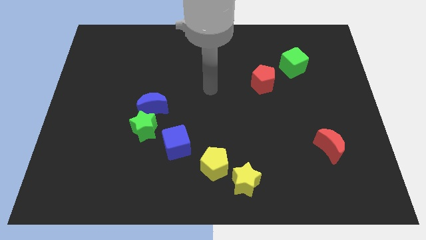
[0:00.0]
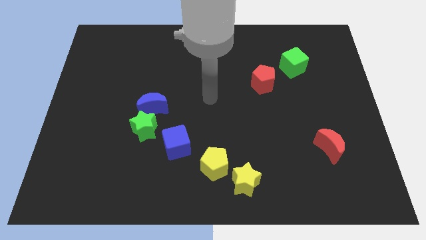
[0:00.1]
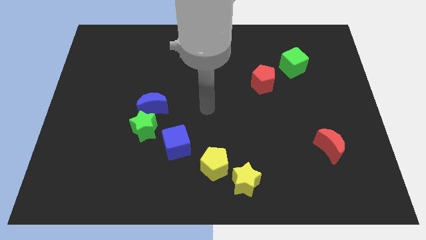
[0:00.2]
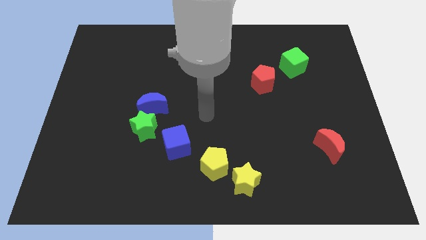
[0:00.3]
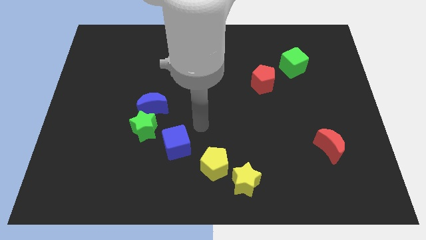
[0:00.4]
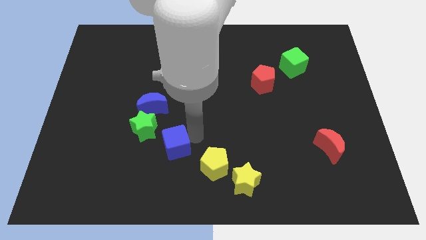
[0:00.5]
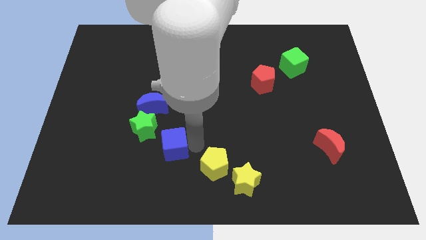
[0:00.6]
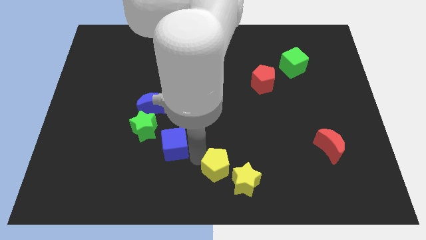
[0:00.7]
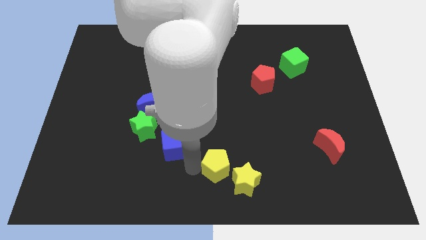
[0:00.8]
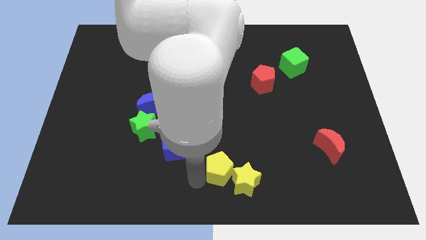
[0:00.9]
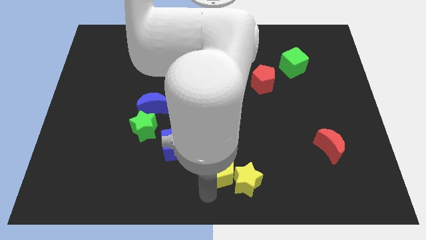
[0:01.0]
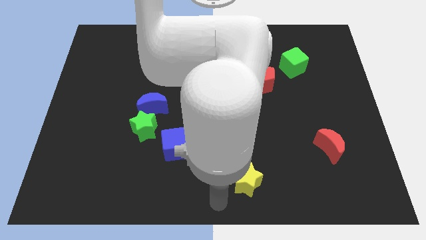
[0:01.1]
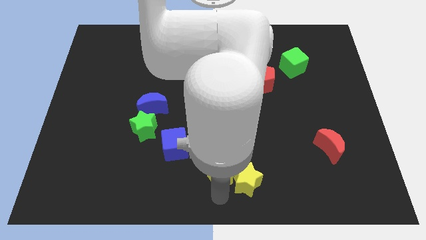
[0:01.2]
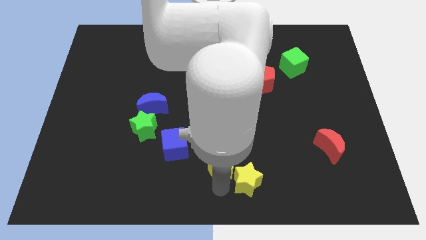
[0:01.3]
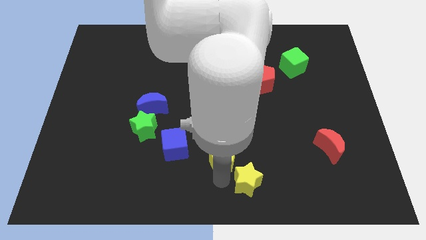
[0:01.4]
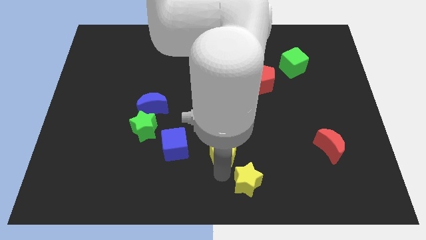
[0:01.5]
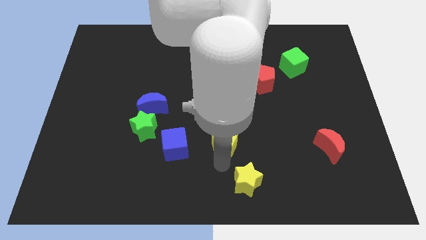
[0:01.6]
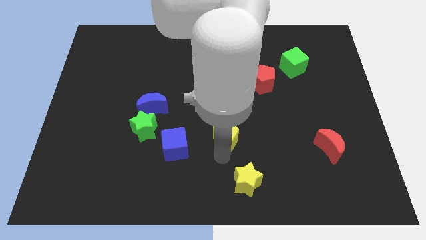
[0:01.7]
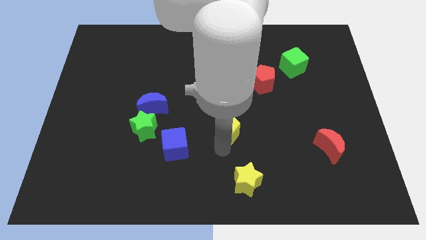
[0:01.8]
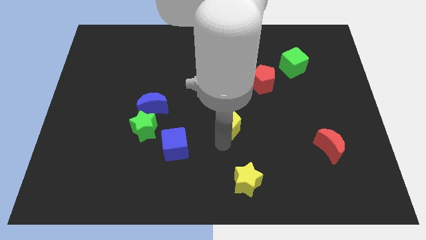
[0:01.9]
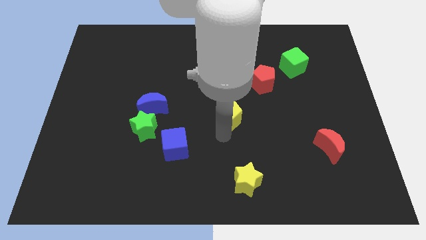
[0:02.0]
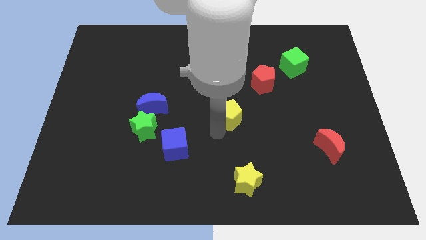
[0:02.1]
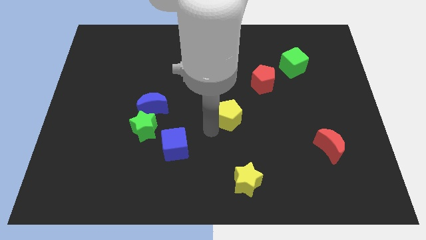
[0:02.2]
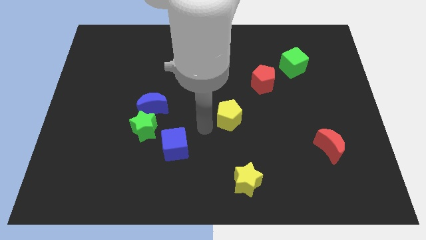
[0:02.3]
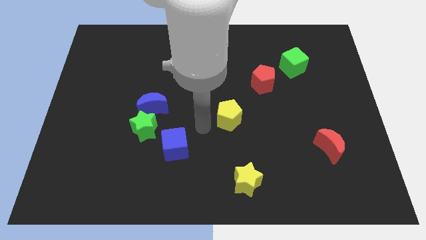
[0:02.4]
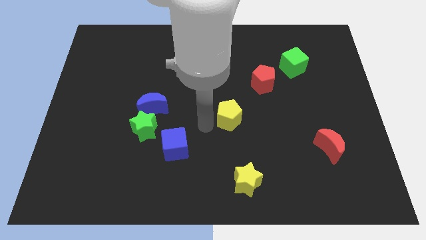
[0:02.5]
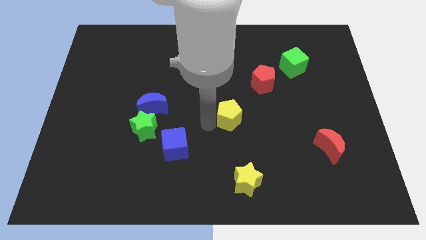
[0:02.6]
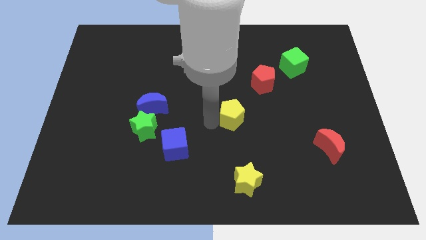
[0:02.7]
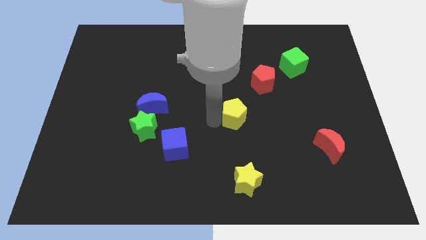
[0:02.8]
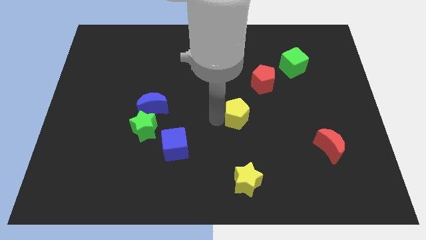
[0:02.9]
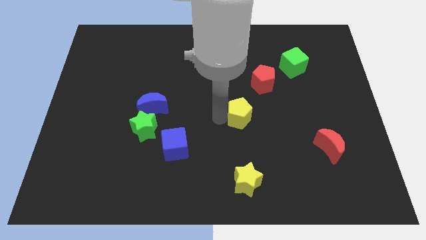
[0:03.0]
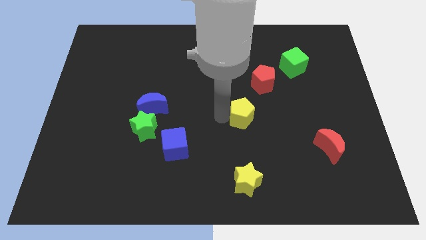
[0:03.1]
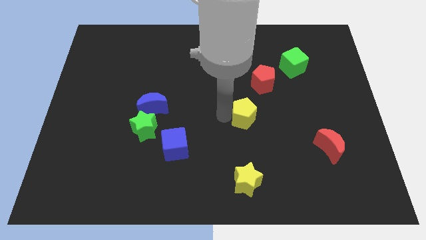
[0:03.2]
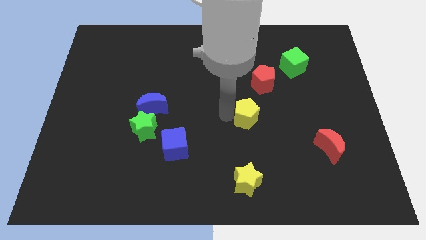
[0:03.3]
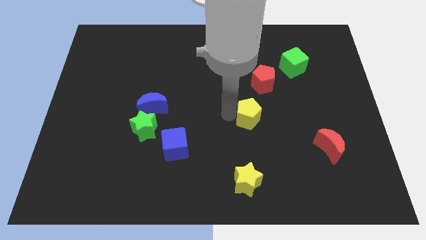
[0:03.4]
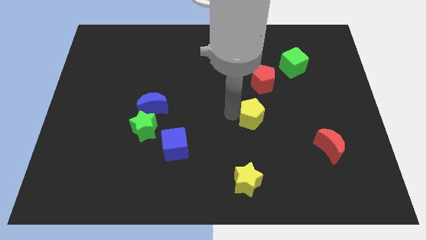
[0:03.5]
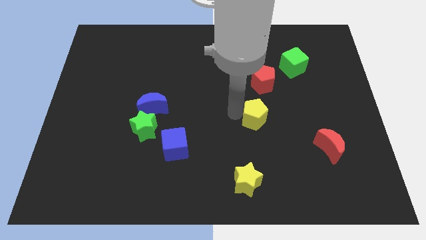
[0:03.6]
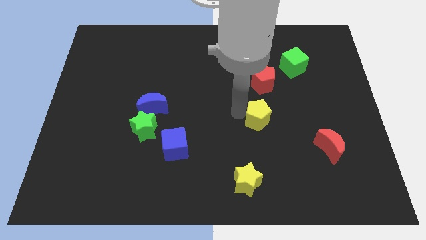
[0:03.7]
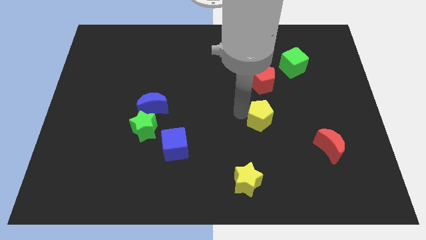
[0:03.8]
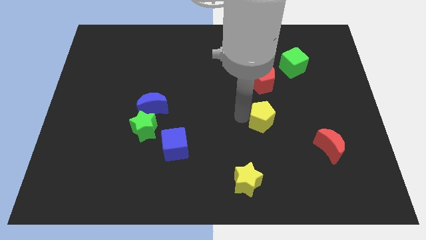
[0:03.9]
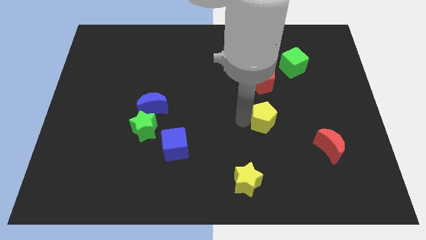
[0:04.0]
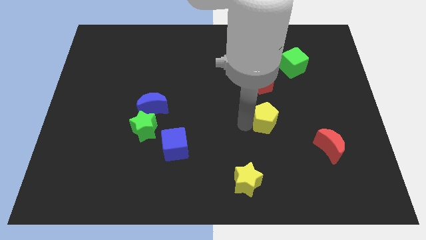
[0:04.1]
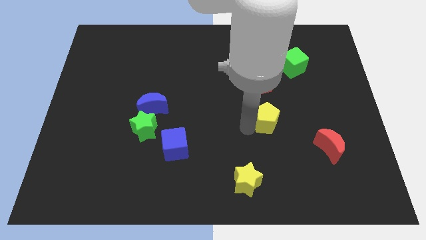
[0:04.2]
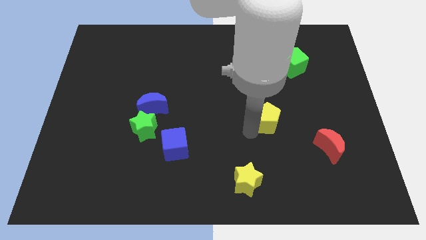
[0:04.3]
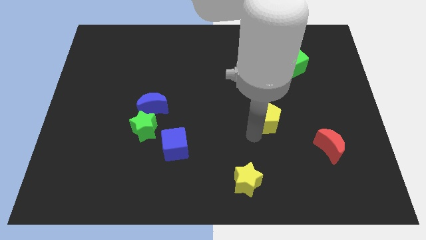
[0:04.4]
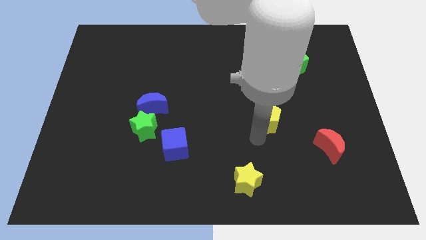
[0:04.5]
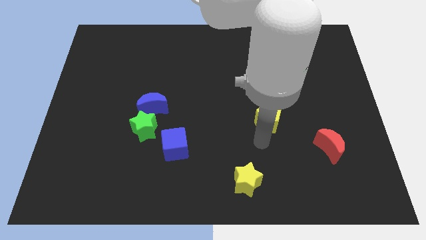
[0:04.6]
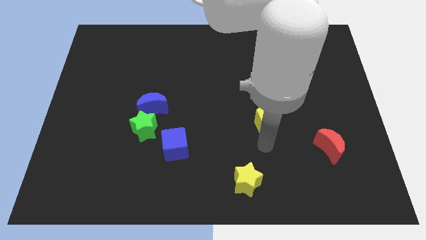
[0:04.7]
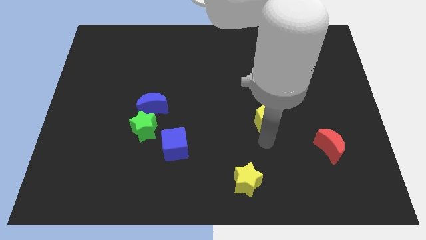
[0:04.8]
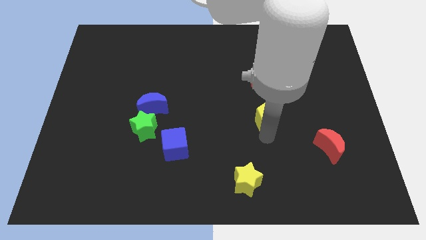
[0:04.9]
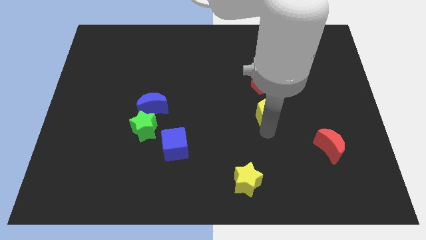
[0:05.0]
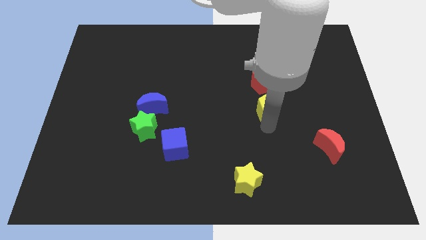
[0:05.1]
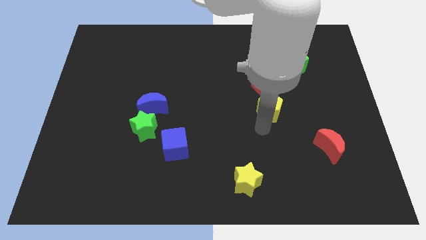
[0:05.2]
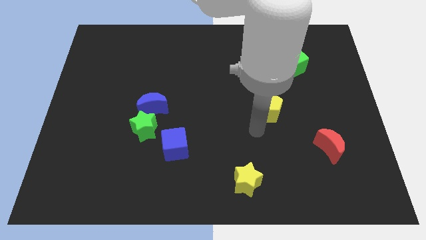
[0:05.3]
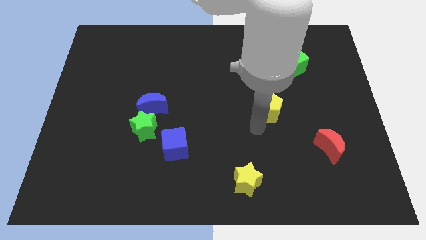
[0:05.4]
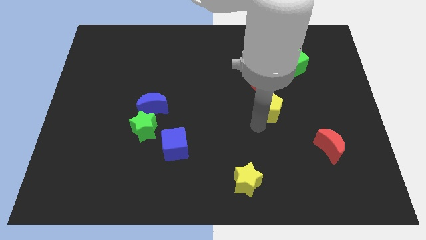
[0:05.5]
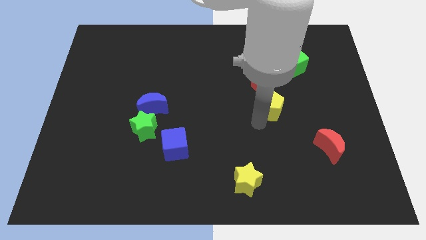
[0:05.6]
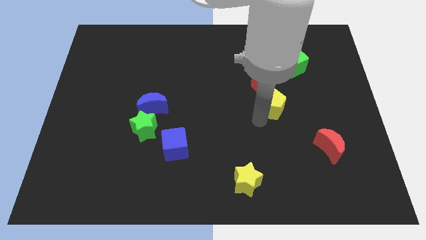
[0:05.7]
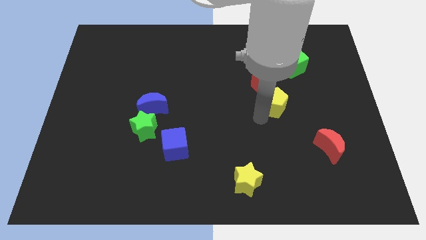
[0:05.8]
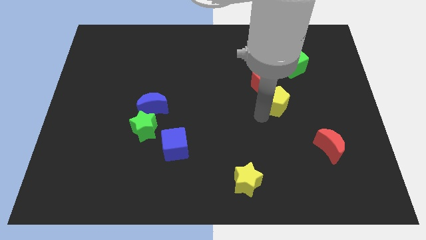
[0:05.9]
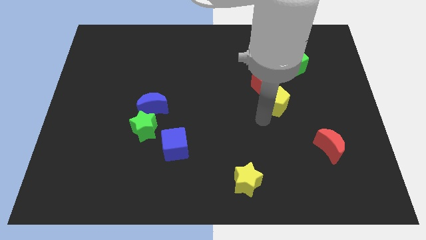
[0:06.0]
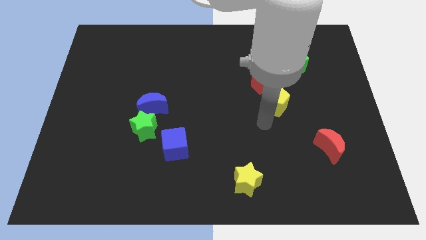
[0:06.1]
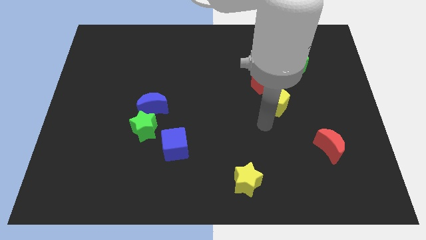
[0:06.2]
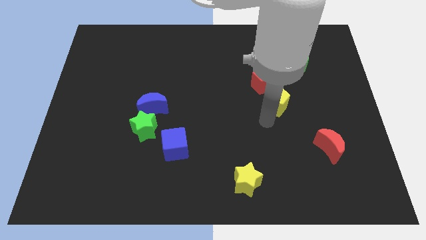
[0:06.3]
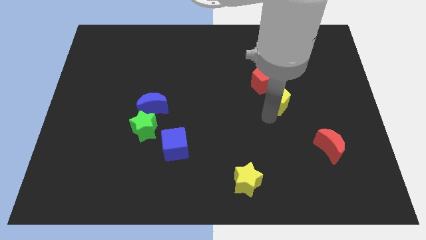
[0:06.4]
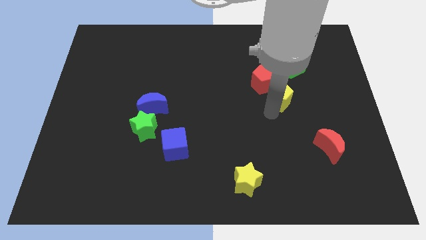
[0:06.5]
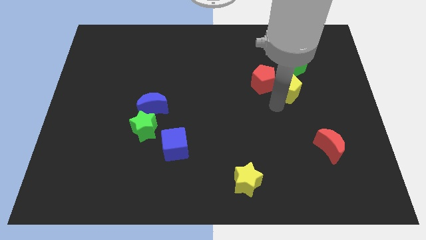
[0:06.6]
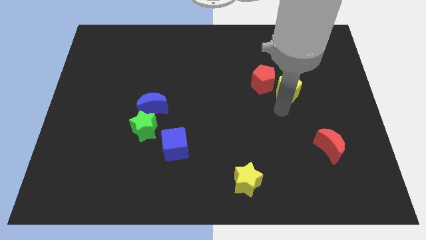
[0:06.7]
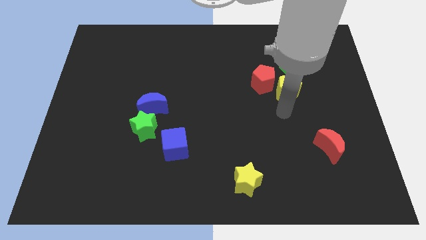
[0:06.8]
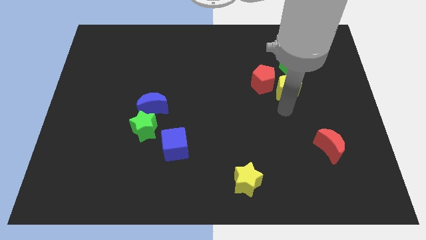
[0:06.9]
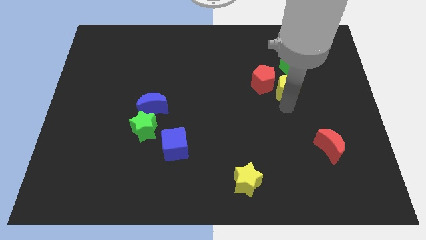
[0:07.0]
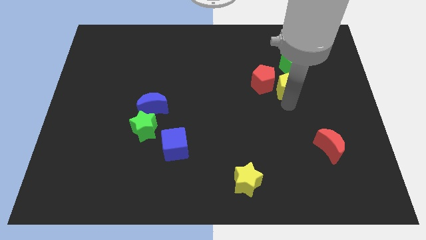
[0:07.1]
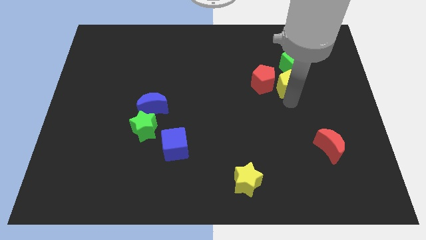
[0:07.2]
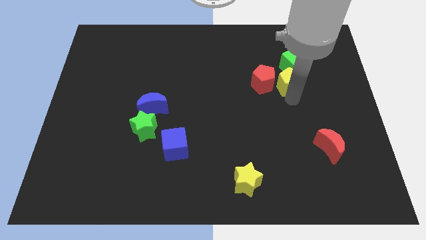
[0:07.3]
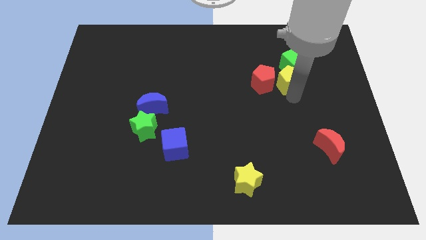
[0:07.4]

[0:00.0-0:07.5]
slide the yellow pentagon close to the green cube
